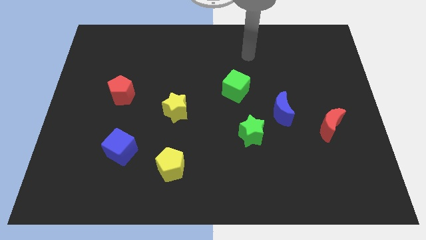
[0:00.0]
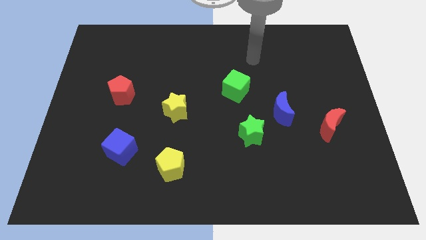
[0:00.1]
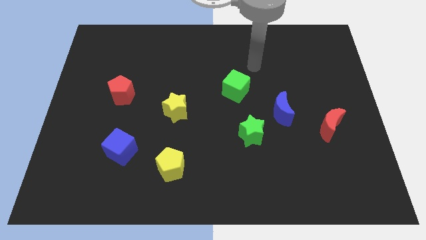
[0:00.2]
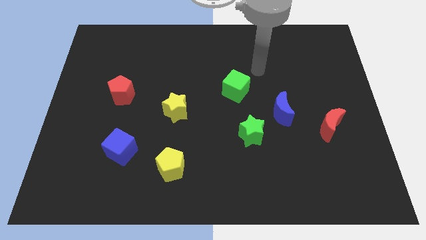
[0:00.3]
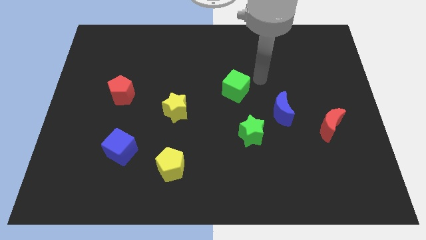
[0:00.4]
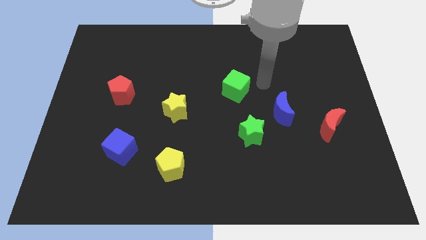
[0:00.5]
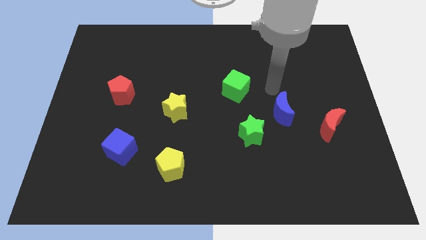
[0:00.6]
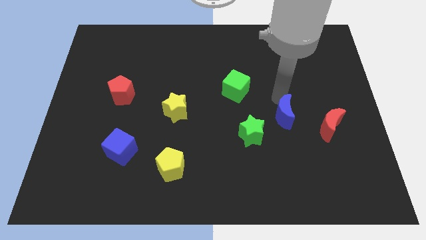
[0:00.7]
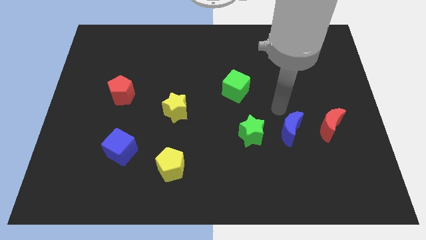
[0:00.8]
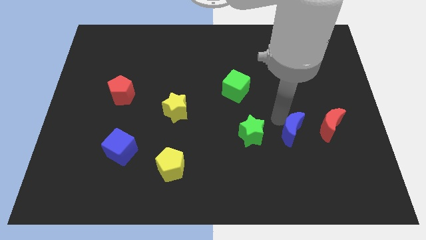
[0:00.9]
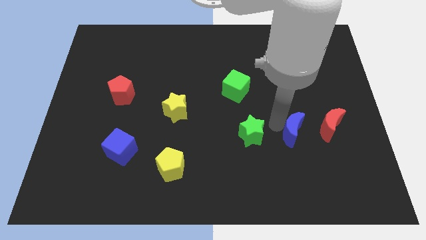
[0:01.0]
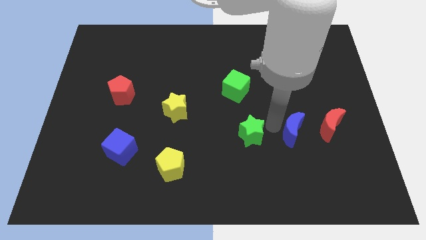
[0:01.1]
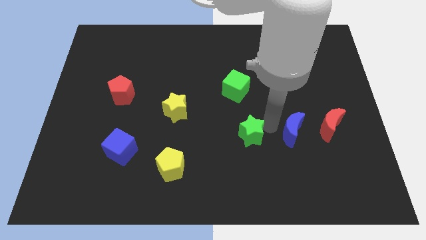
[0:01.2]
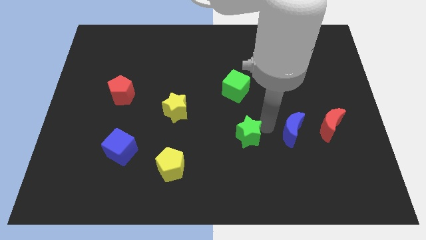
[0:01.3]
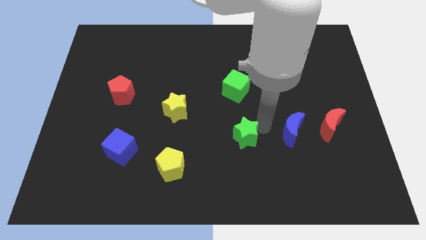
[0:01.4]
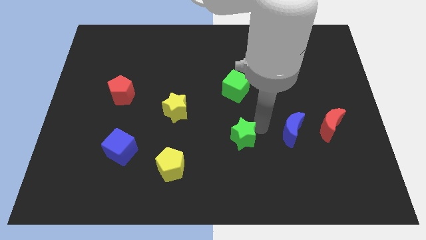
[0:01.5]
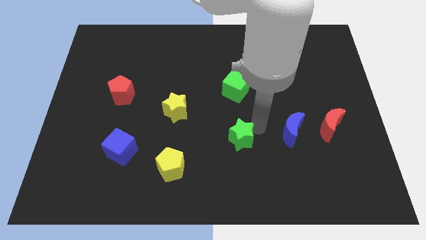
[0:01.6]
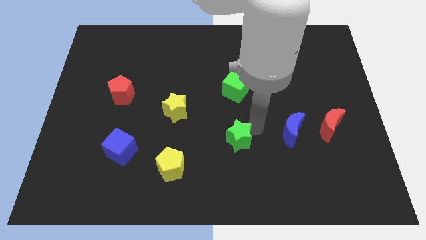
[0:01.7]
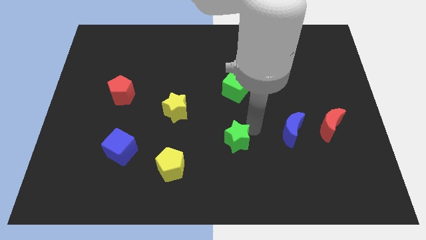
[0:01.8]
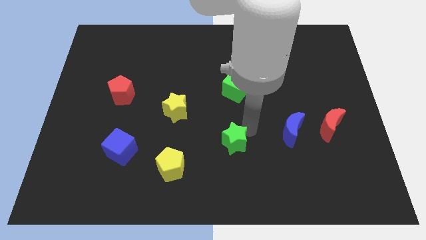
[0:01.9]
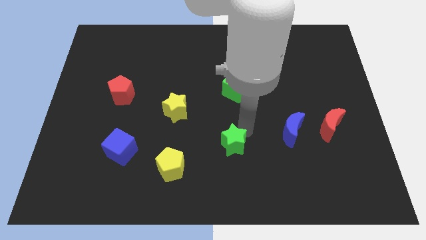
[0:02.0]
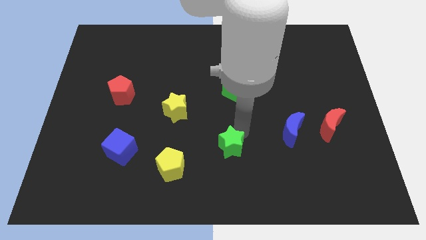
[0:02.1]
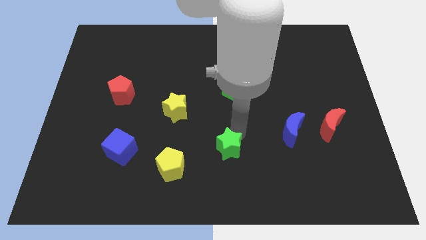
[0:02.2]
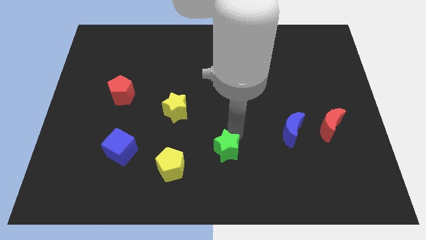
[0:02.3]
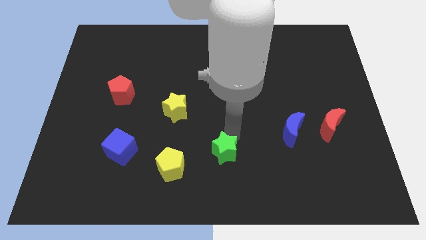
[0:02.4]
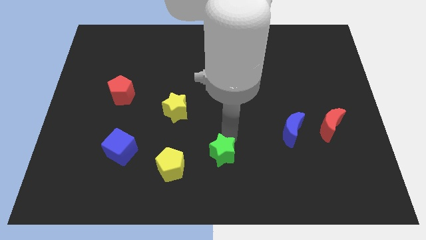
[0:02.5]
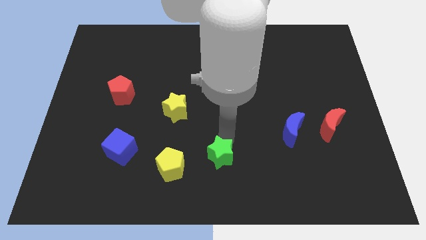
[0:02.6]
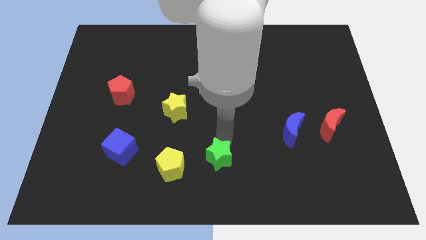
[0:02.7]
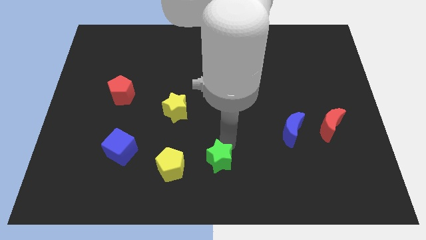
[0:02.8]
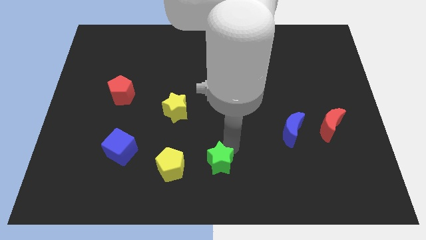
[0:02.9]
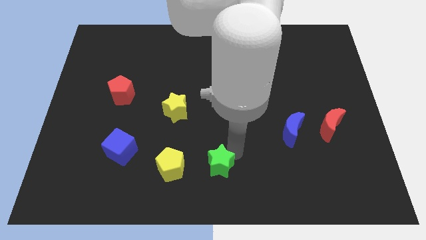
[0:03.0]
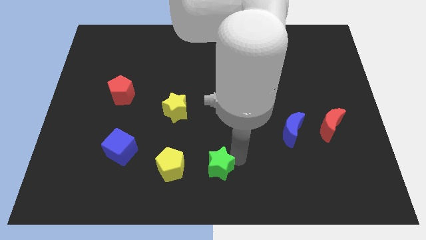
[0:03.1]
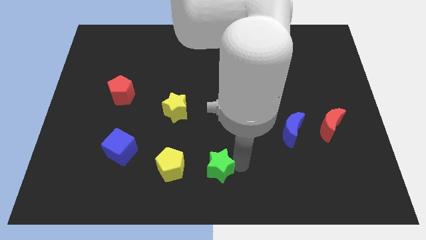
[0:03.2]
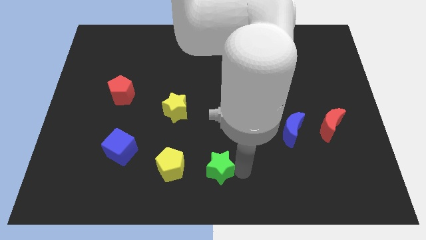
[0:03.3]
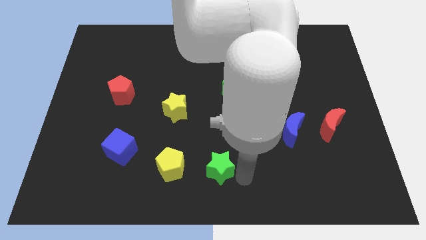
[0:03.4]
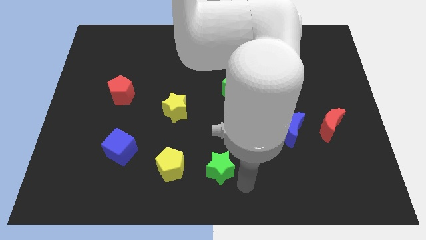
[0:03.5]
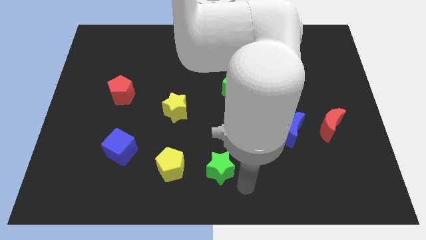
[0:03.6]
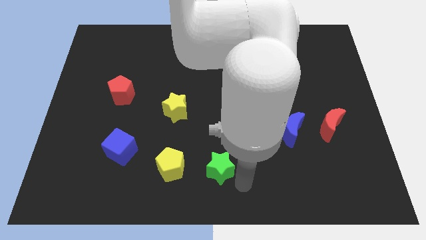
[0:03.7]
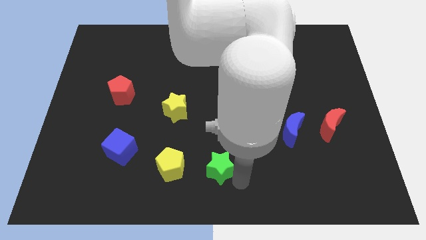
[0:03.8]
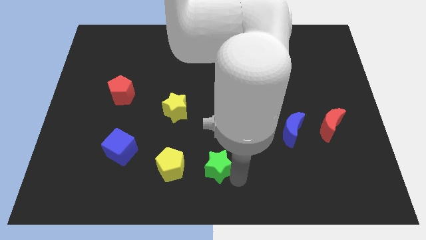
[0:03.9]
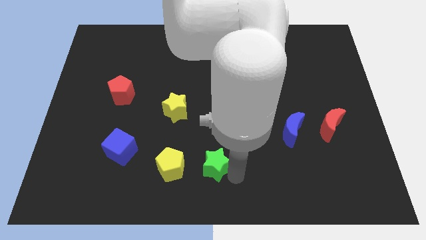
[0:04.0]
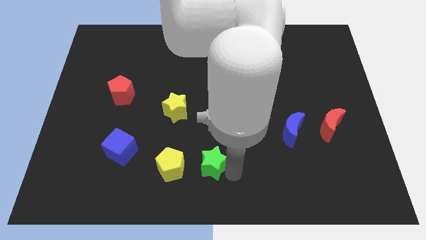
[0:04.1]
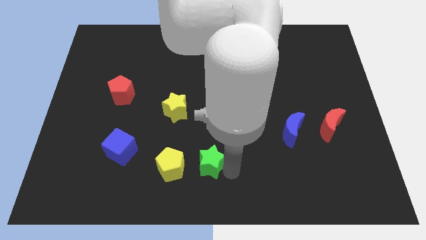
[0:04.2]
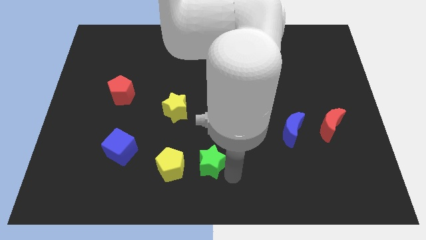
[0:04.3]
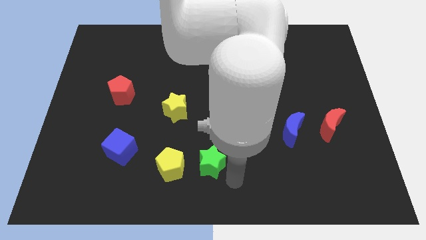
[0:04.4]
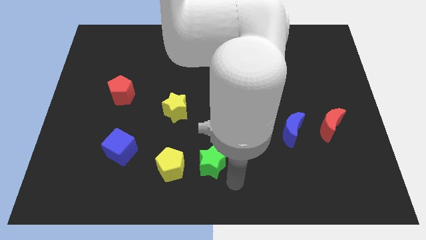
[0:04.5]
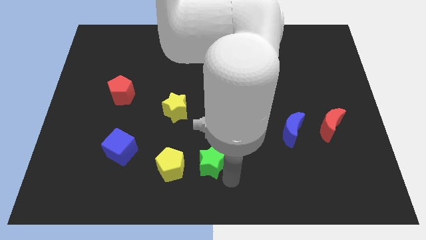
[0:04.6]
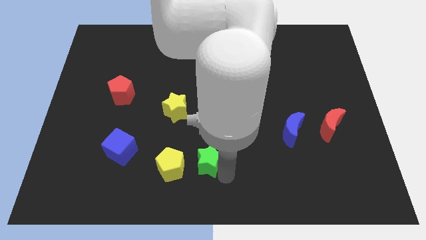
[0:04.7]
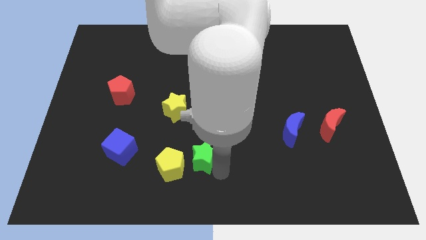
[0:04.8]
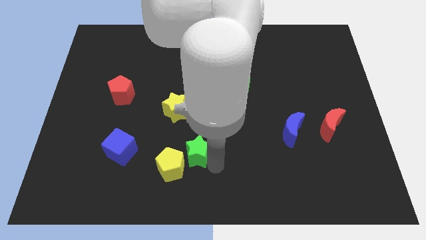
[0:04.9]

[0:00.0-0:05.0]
slide the green star towards the yellow pentagon

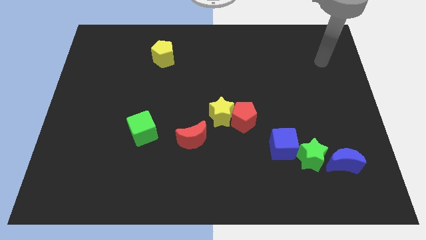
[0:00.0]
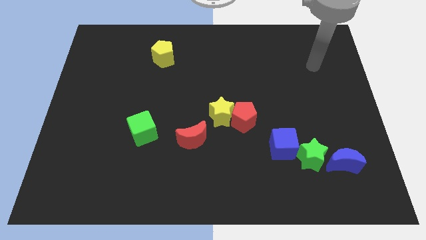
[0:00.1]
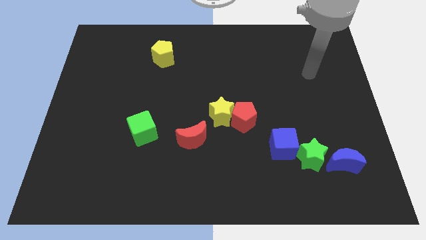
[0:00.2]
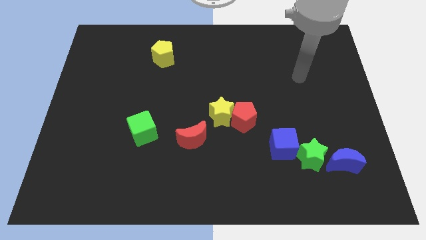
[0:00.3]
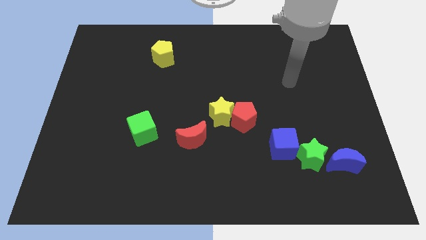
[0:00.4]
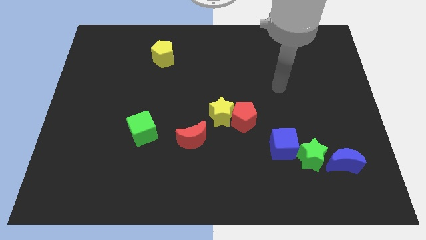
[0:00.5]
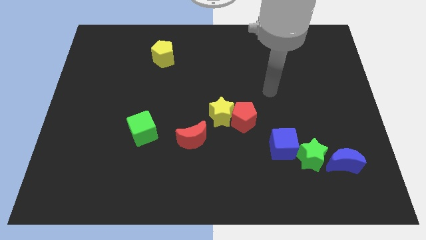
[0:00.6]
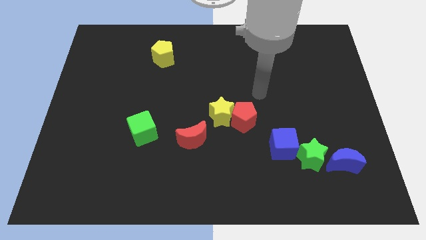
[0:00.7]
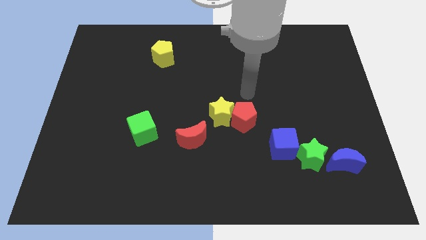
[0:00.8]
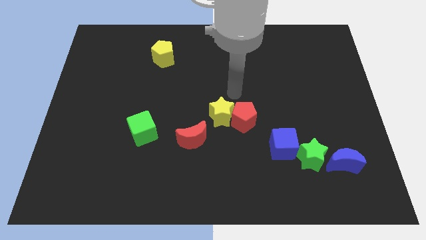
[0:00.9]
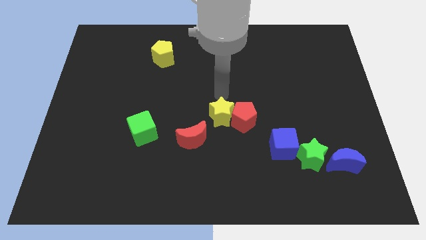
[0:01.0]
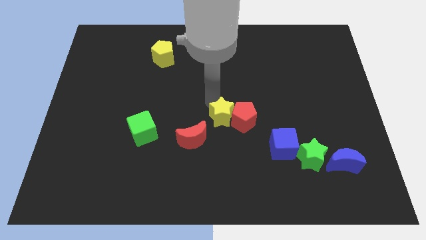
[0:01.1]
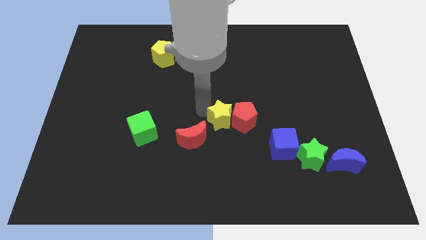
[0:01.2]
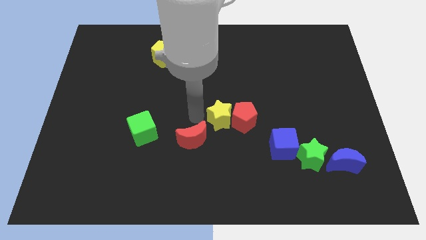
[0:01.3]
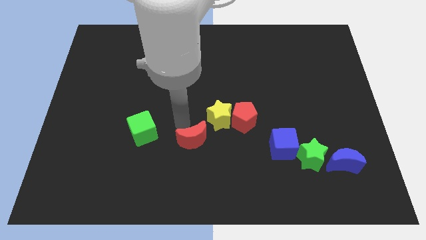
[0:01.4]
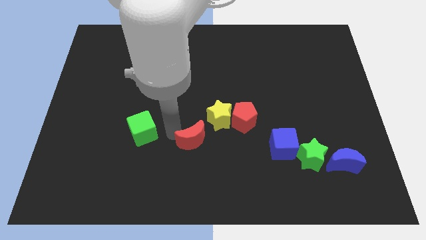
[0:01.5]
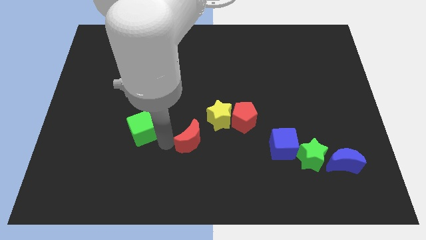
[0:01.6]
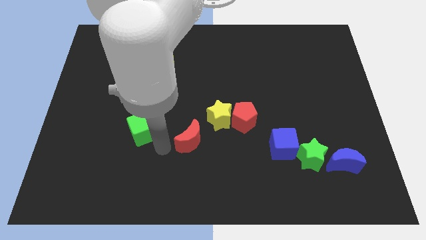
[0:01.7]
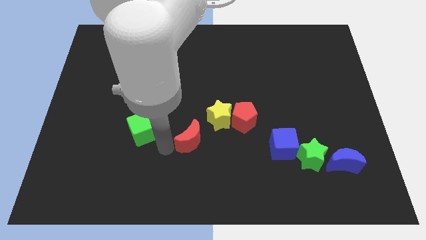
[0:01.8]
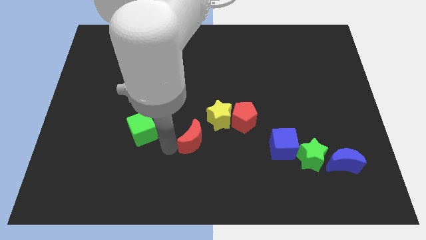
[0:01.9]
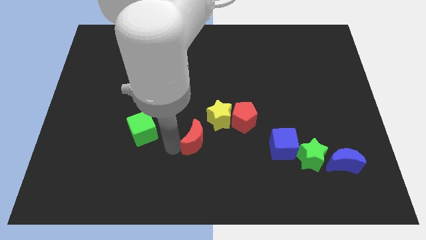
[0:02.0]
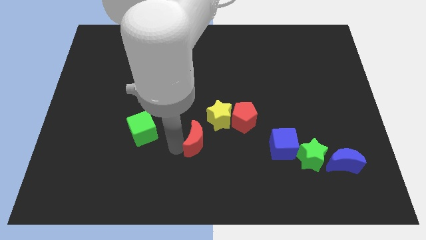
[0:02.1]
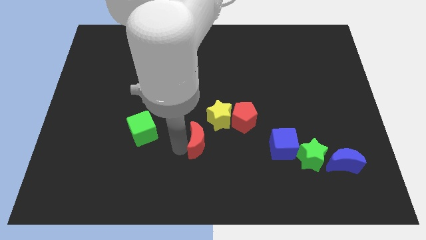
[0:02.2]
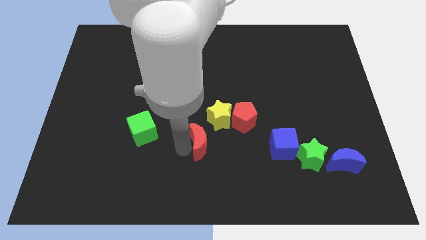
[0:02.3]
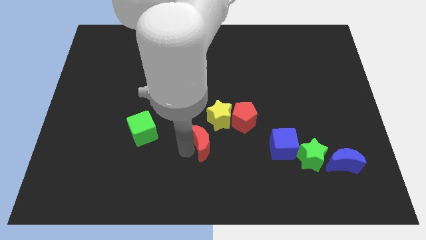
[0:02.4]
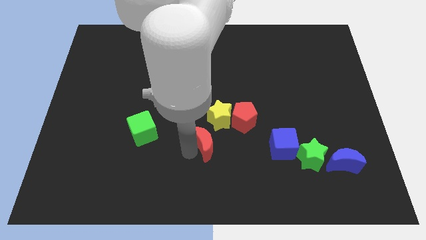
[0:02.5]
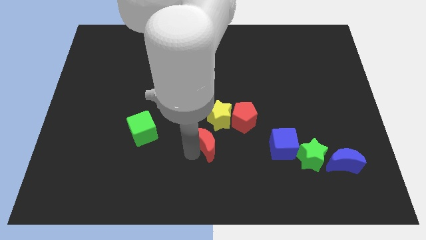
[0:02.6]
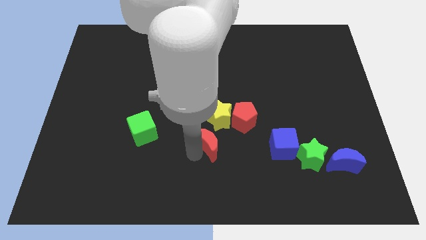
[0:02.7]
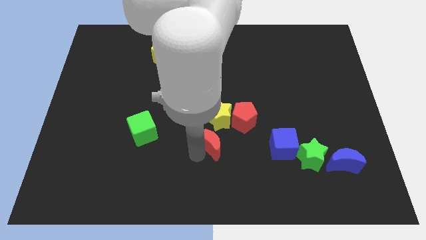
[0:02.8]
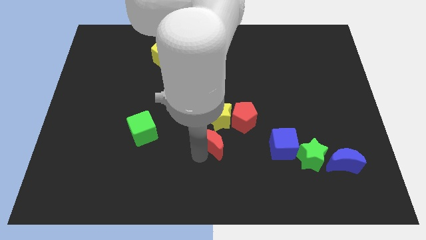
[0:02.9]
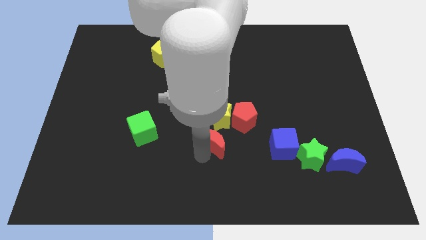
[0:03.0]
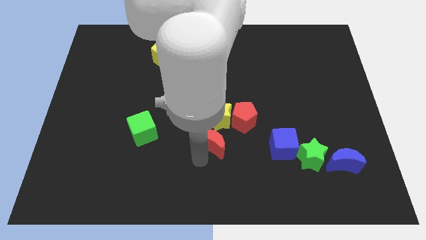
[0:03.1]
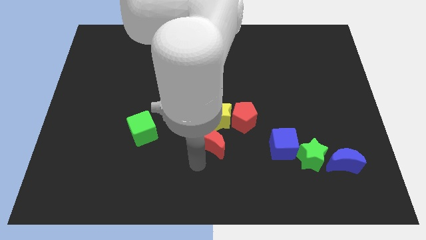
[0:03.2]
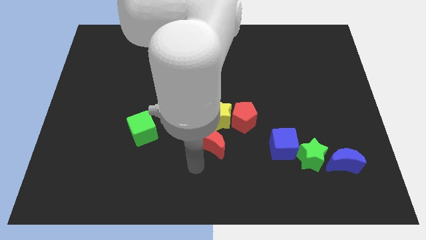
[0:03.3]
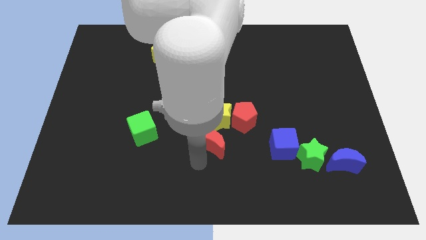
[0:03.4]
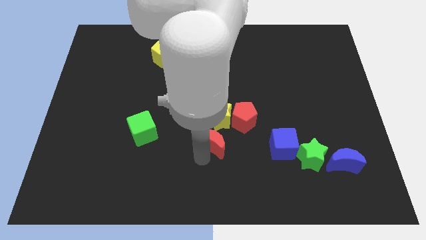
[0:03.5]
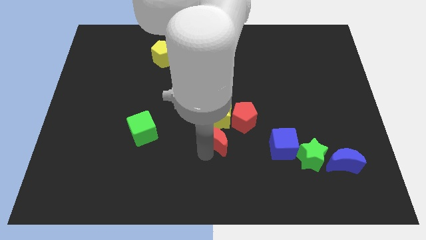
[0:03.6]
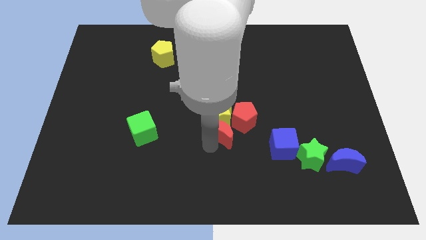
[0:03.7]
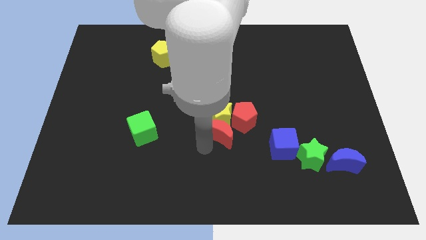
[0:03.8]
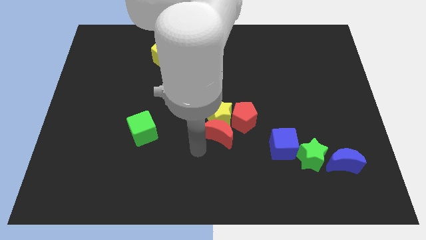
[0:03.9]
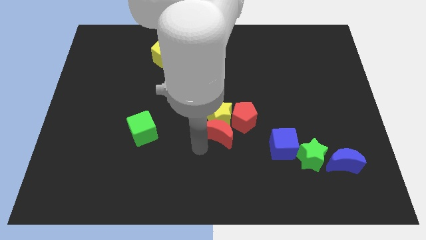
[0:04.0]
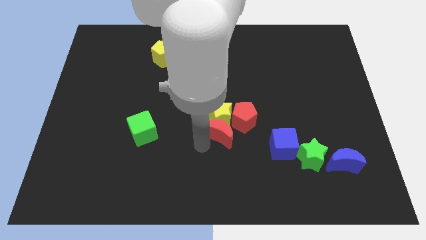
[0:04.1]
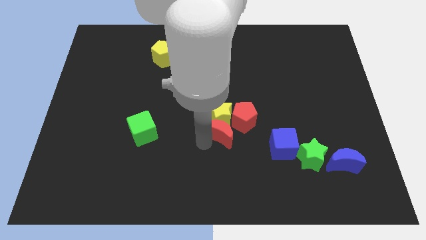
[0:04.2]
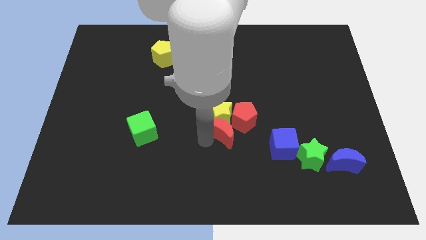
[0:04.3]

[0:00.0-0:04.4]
push the red moon next to the red pentagon
